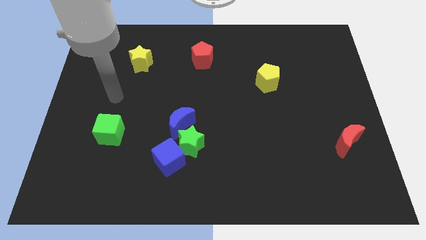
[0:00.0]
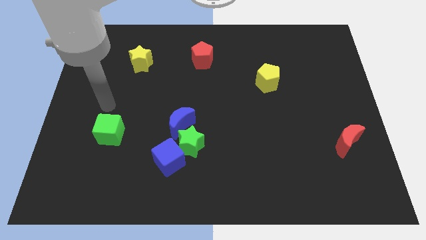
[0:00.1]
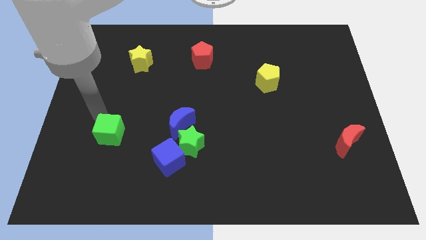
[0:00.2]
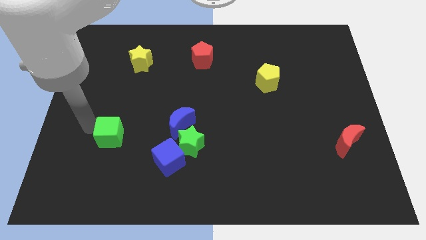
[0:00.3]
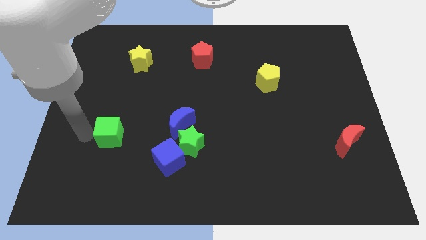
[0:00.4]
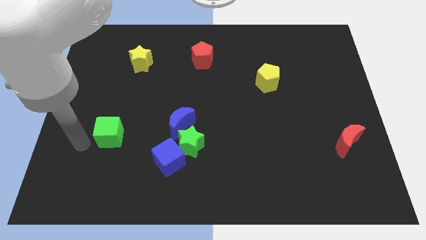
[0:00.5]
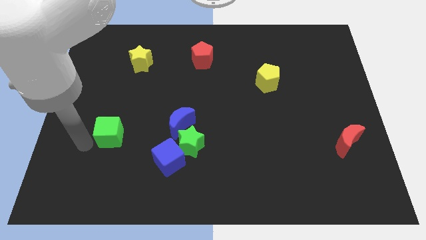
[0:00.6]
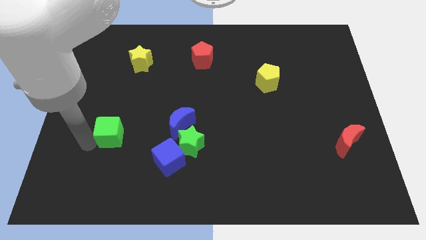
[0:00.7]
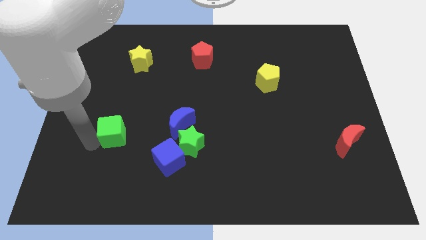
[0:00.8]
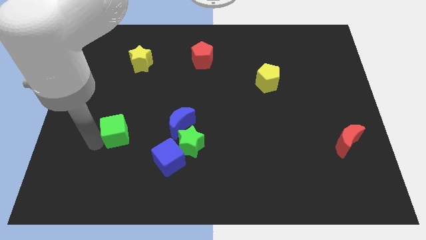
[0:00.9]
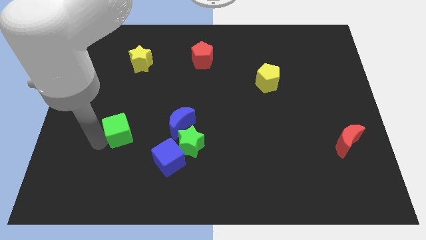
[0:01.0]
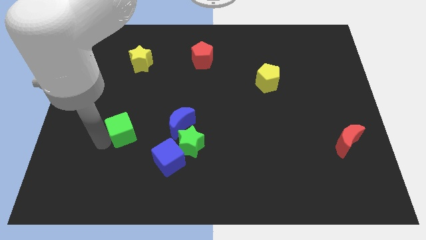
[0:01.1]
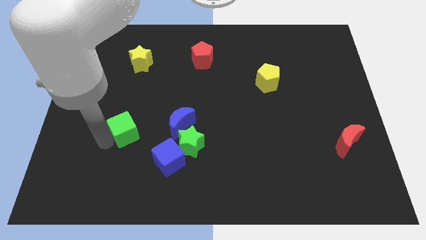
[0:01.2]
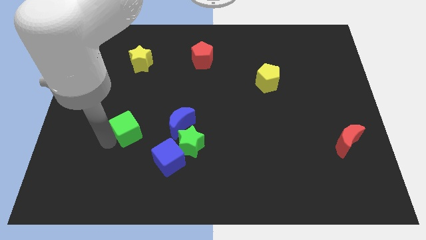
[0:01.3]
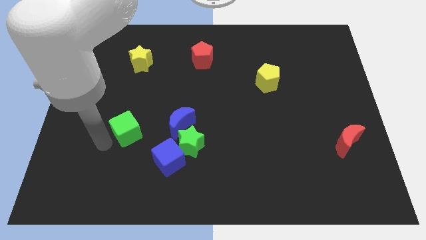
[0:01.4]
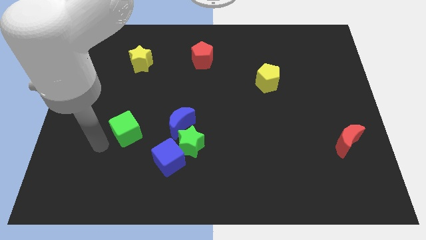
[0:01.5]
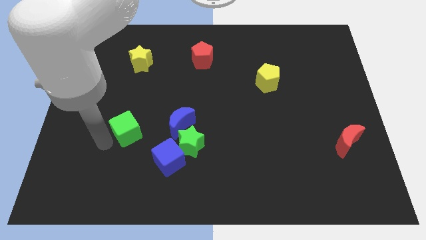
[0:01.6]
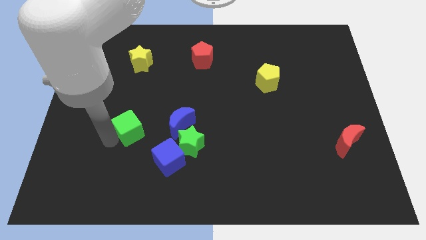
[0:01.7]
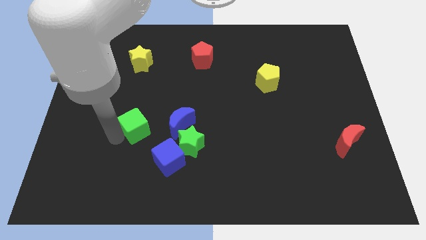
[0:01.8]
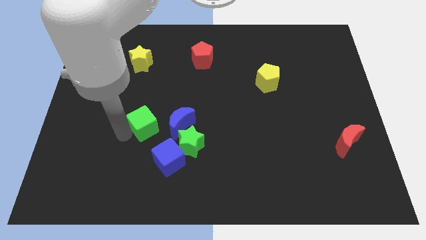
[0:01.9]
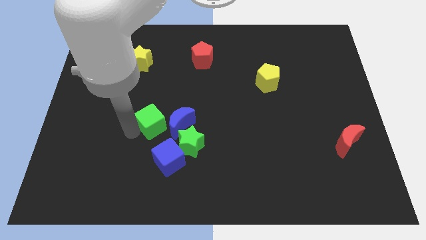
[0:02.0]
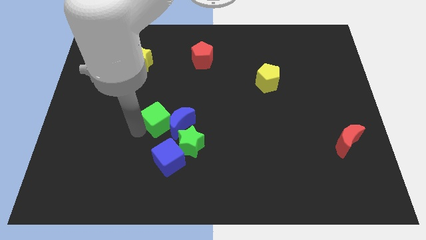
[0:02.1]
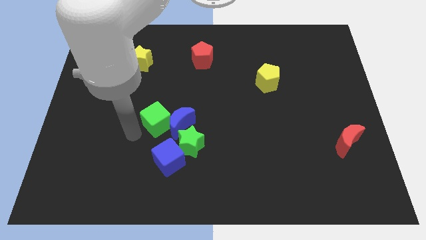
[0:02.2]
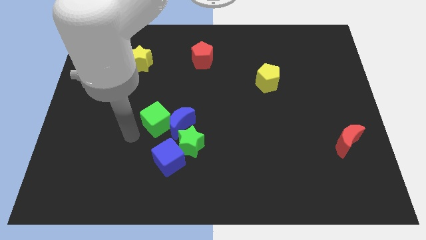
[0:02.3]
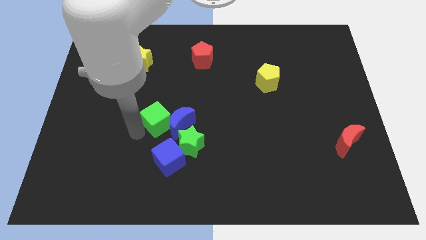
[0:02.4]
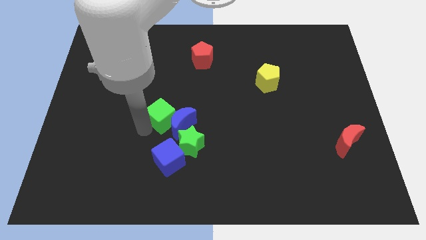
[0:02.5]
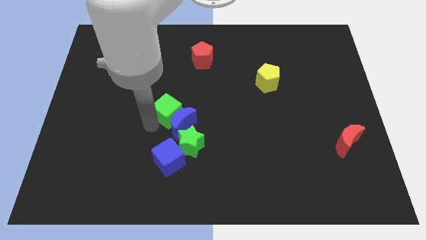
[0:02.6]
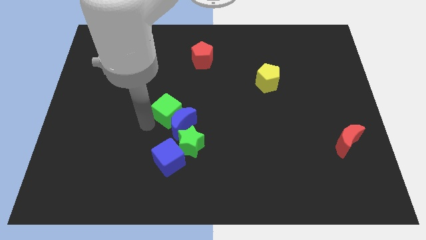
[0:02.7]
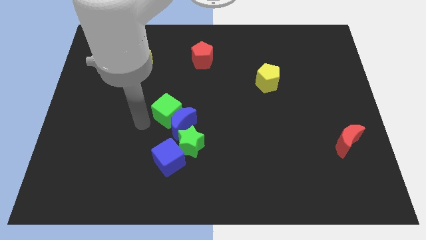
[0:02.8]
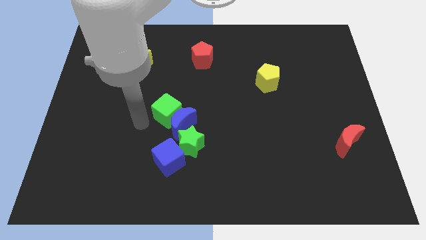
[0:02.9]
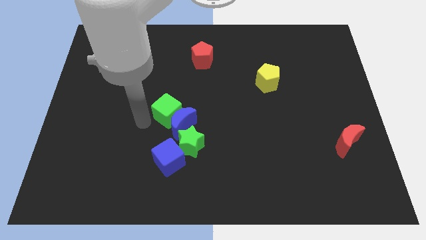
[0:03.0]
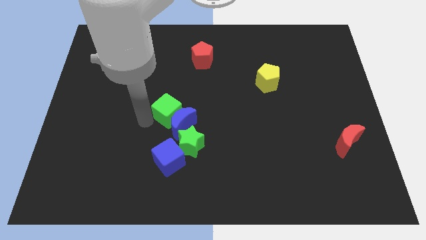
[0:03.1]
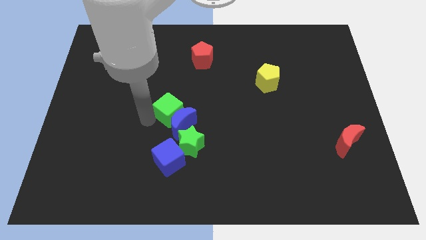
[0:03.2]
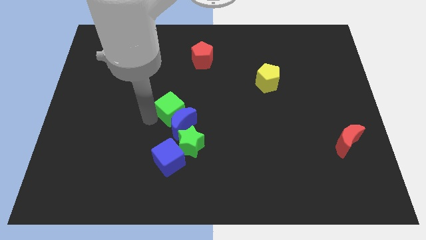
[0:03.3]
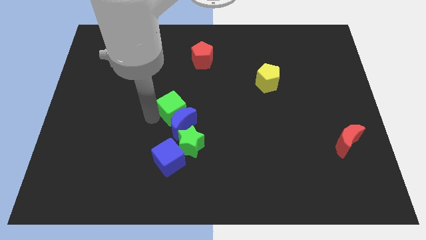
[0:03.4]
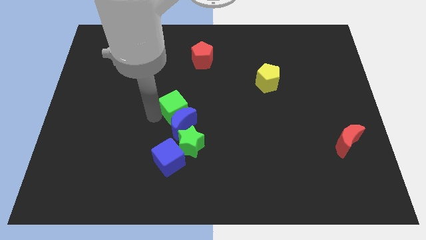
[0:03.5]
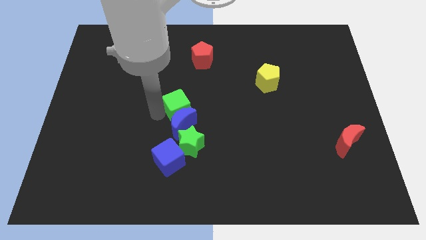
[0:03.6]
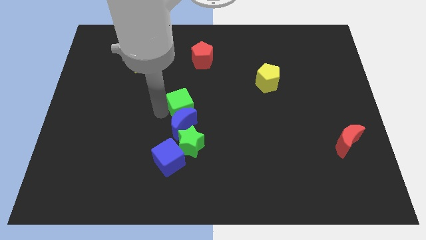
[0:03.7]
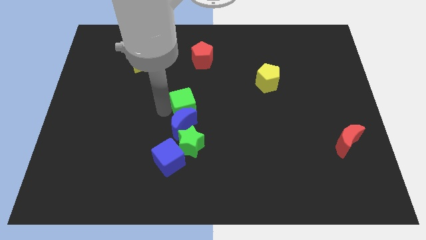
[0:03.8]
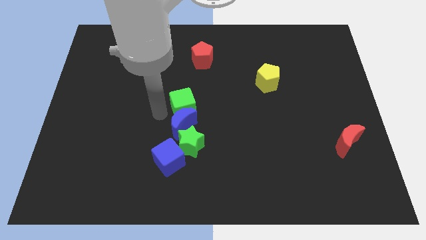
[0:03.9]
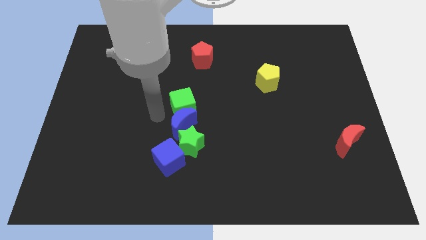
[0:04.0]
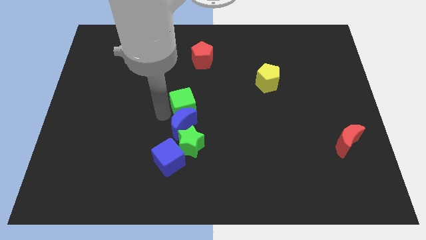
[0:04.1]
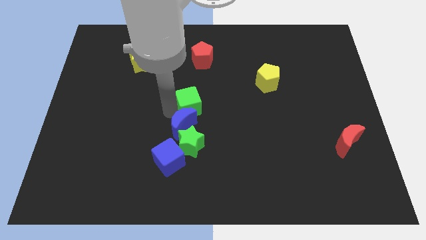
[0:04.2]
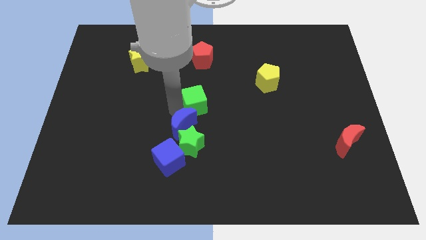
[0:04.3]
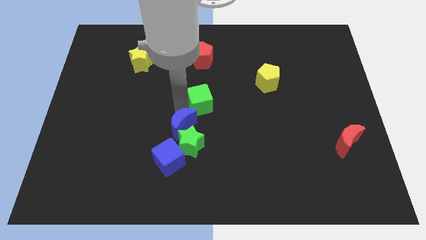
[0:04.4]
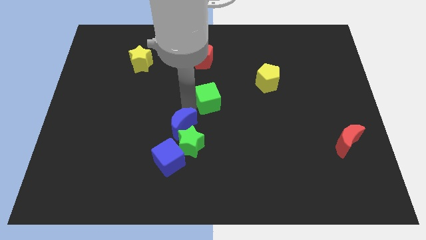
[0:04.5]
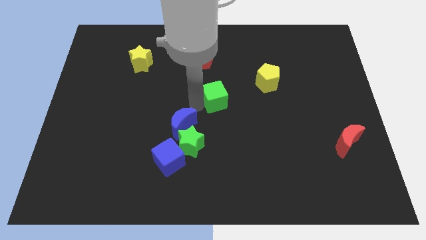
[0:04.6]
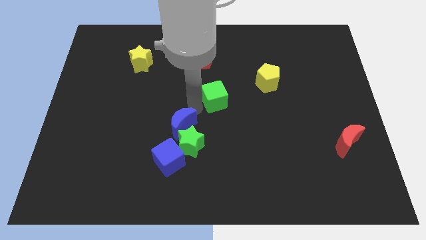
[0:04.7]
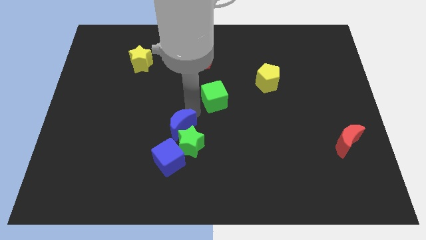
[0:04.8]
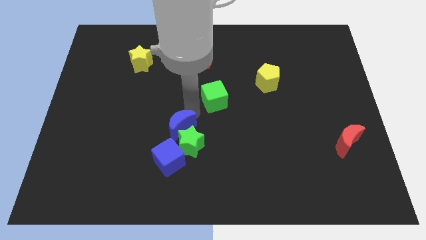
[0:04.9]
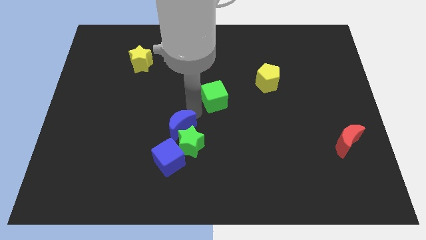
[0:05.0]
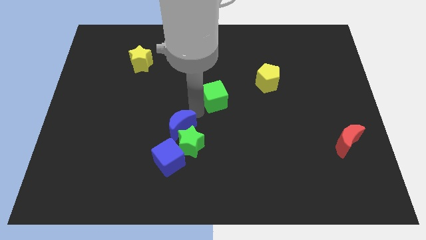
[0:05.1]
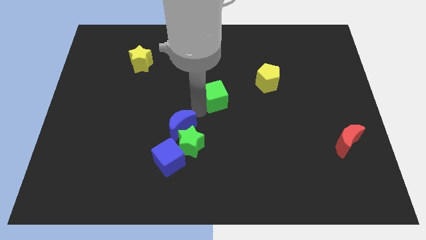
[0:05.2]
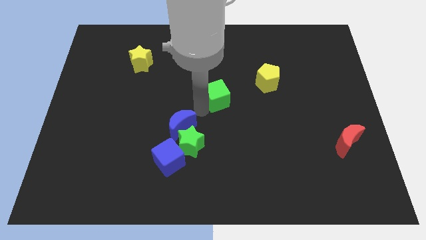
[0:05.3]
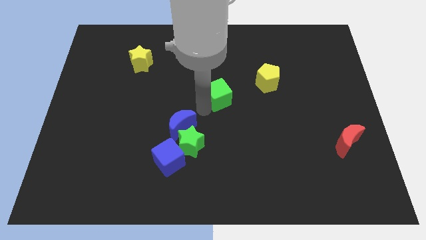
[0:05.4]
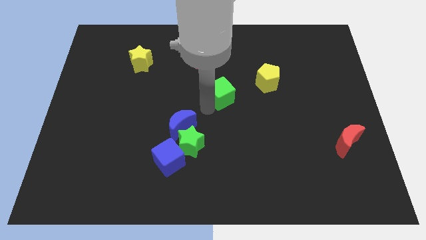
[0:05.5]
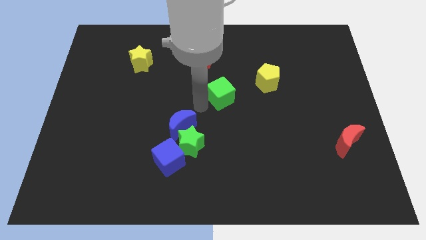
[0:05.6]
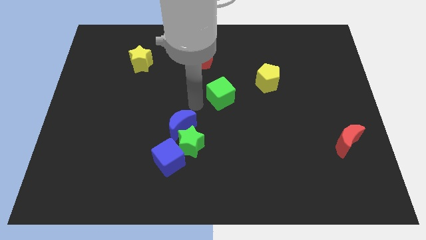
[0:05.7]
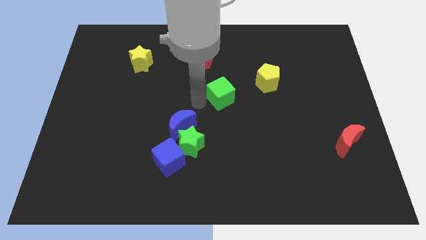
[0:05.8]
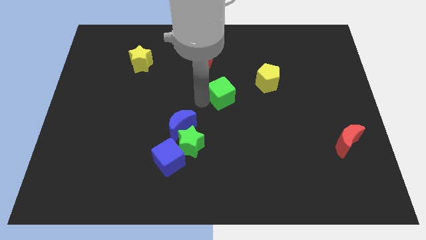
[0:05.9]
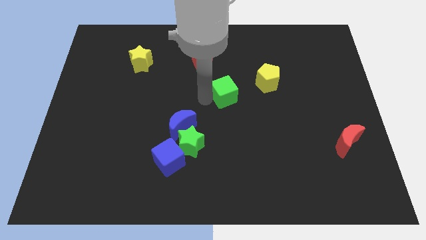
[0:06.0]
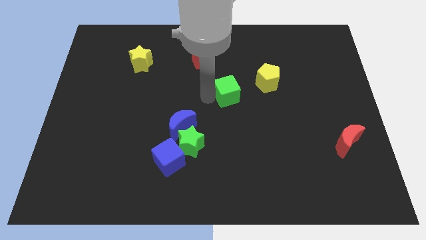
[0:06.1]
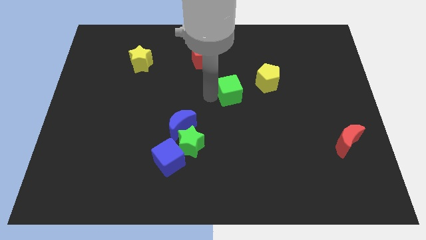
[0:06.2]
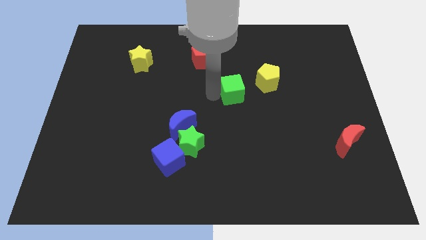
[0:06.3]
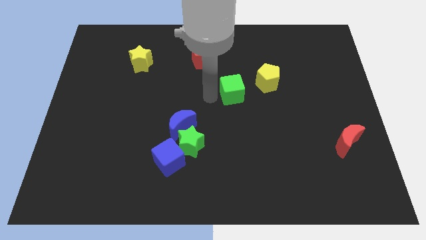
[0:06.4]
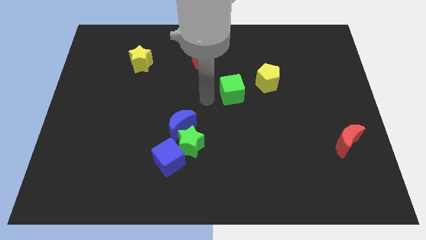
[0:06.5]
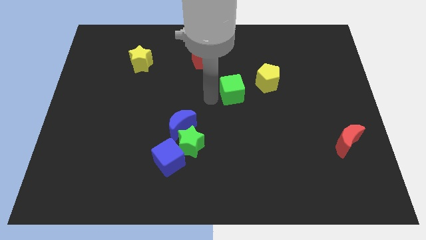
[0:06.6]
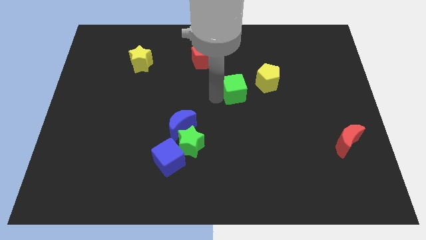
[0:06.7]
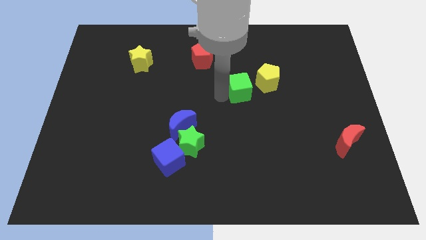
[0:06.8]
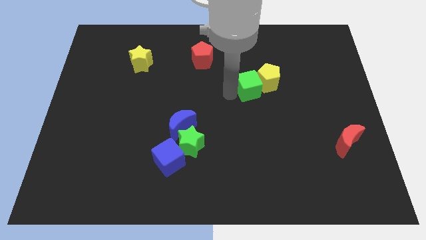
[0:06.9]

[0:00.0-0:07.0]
slide the green cube next to the yellow pentagon

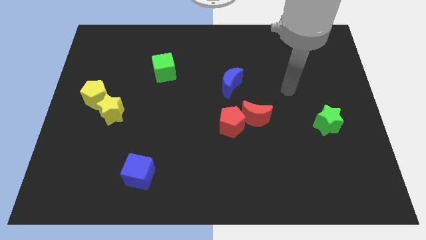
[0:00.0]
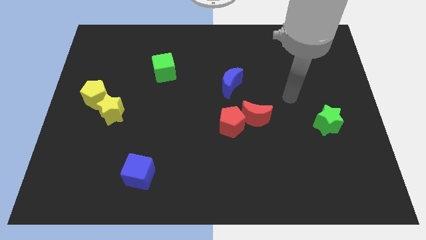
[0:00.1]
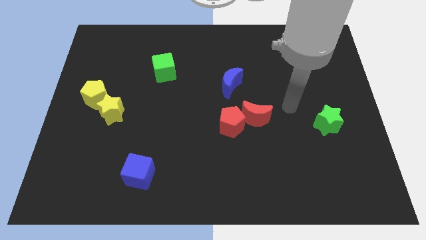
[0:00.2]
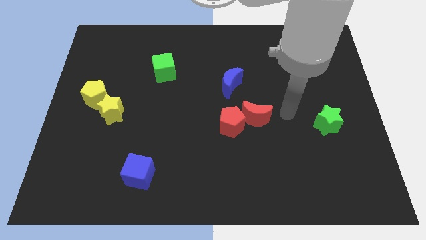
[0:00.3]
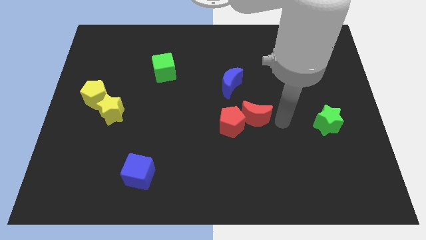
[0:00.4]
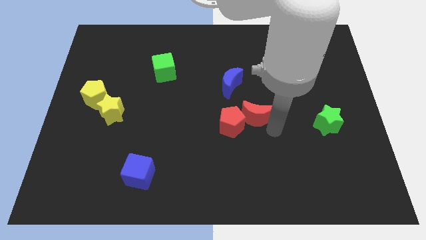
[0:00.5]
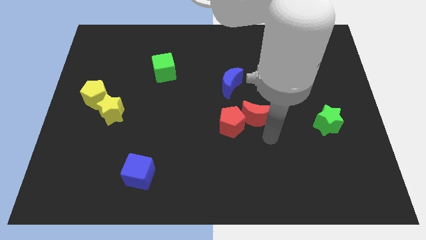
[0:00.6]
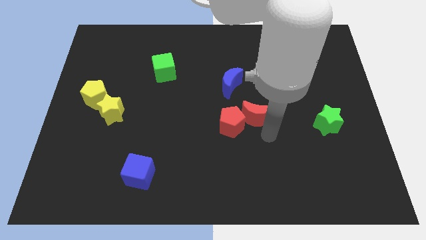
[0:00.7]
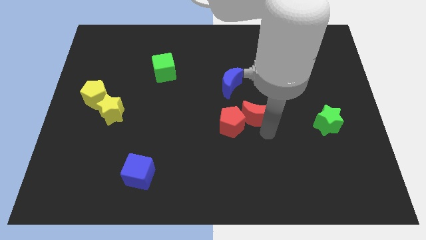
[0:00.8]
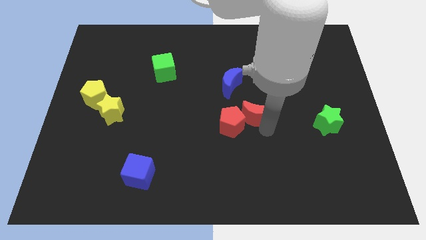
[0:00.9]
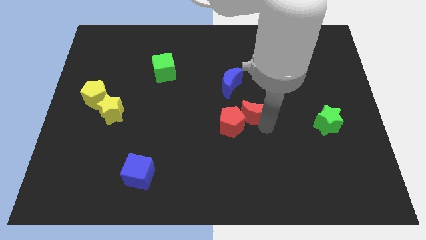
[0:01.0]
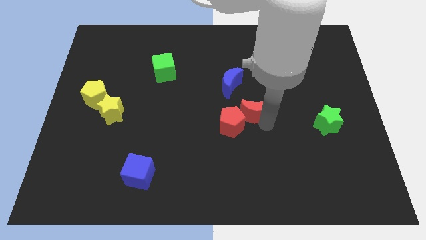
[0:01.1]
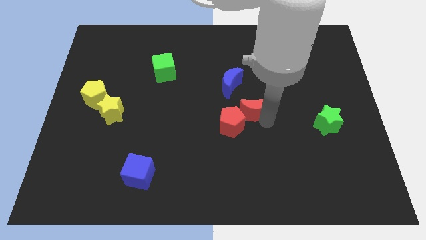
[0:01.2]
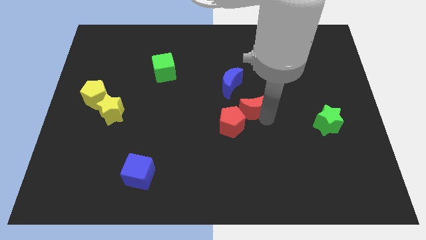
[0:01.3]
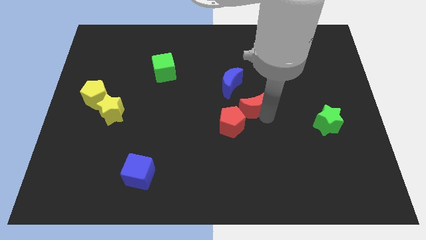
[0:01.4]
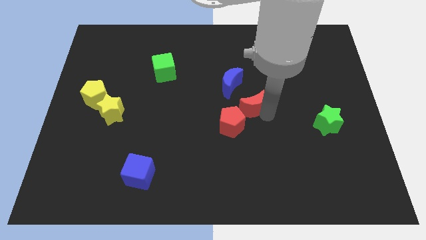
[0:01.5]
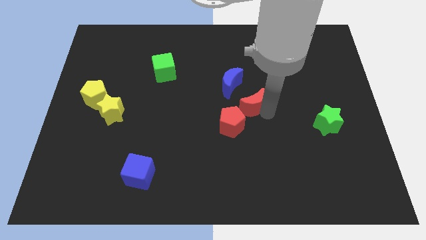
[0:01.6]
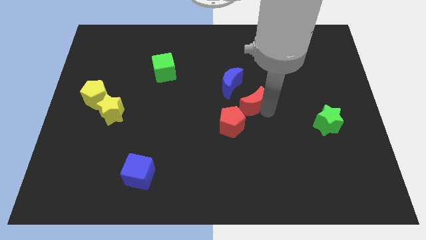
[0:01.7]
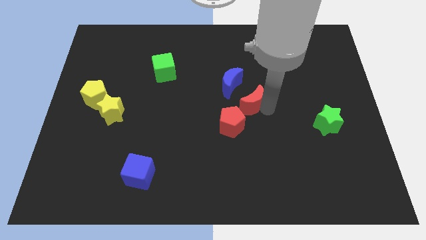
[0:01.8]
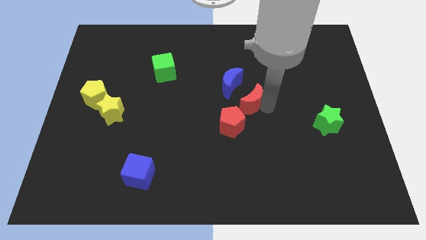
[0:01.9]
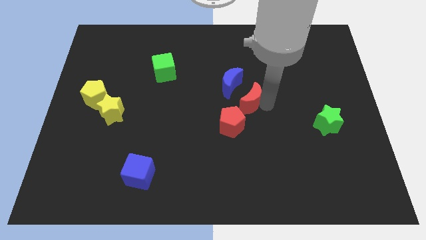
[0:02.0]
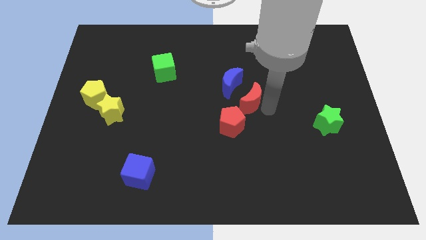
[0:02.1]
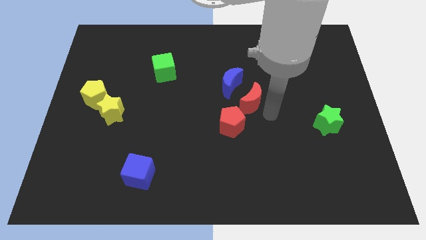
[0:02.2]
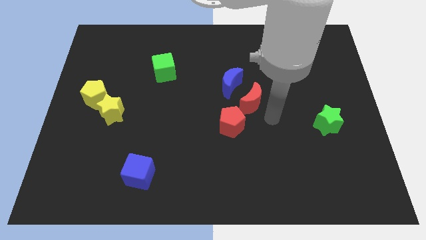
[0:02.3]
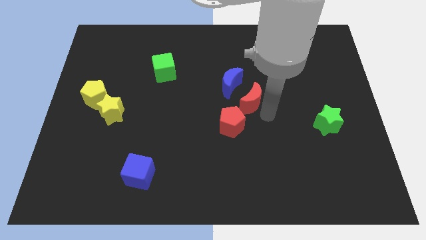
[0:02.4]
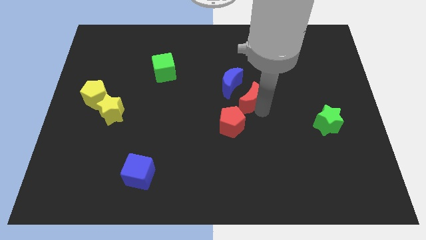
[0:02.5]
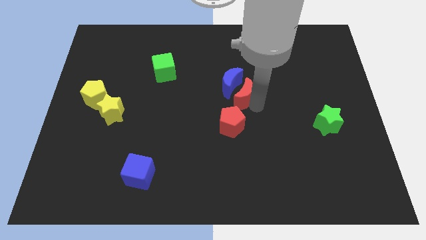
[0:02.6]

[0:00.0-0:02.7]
put the red moon towards the blue moon
